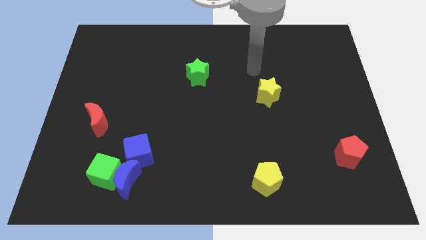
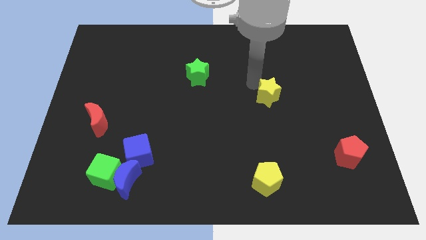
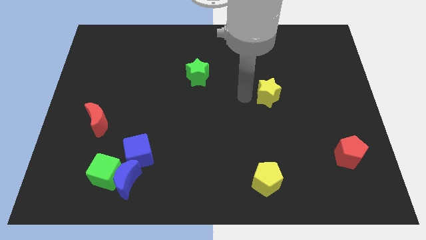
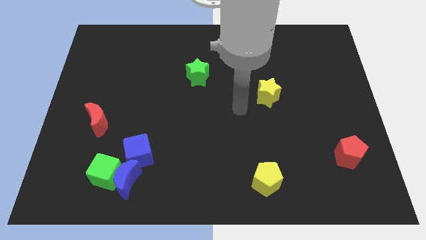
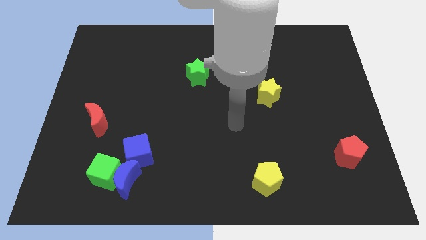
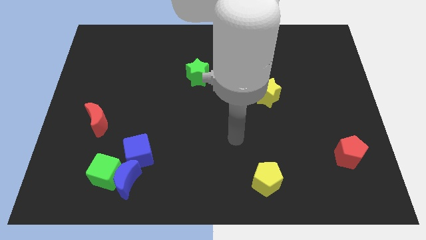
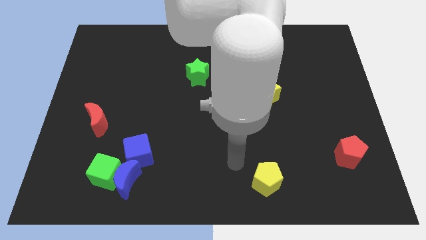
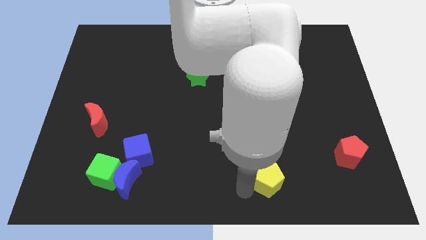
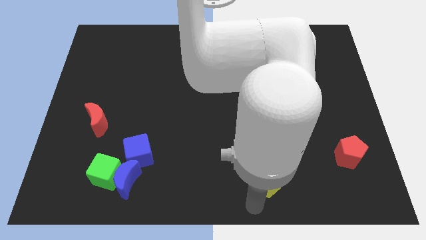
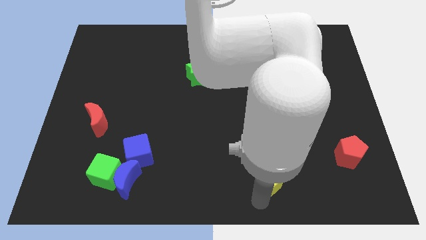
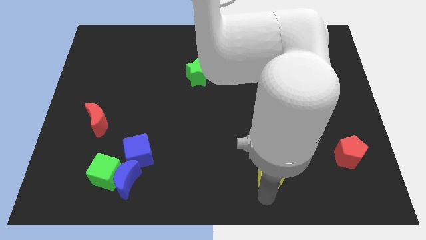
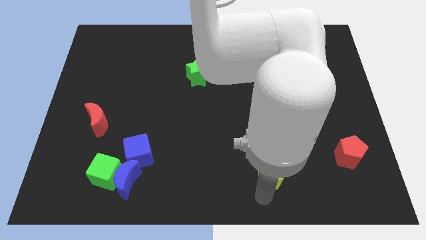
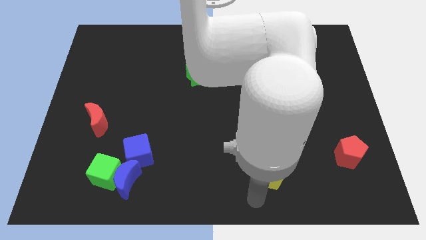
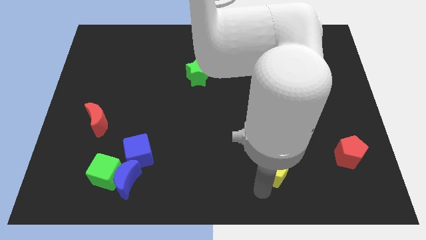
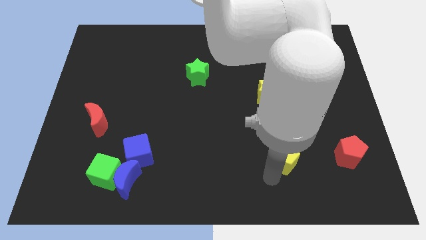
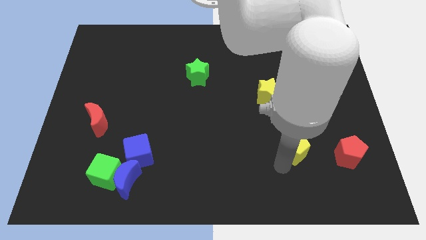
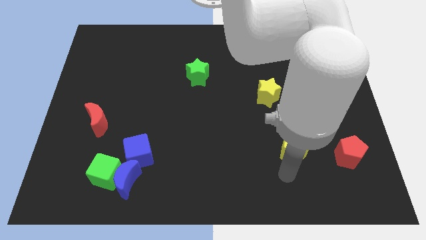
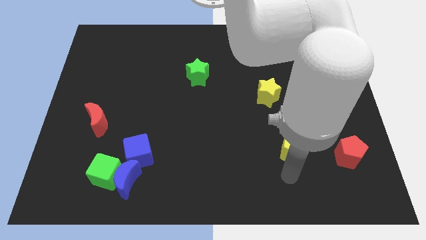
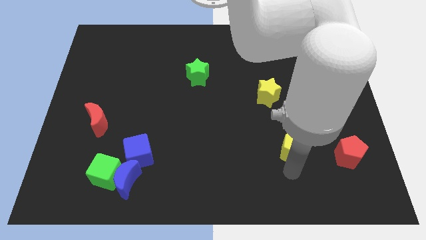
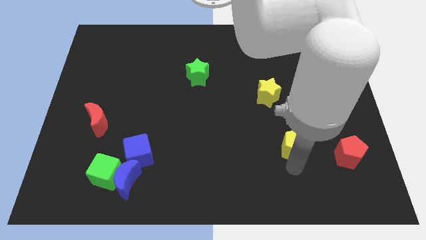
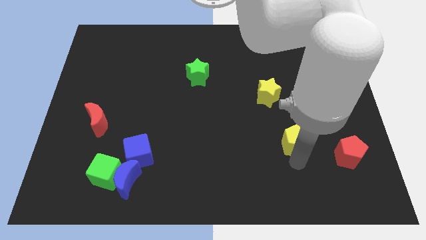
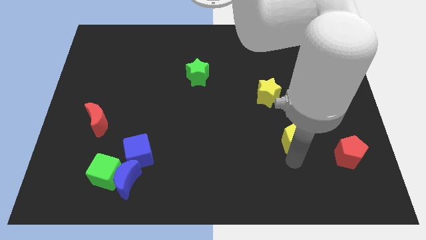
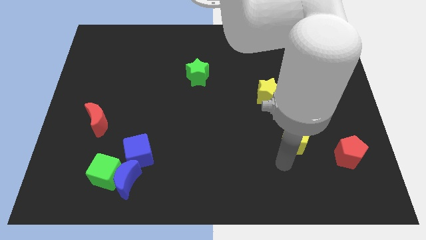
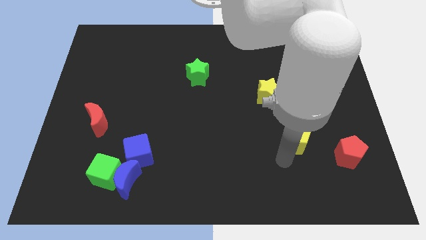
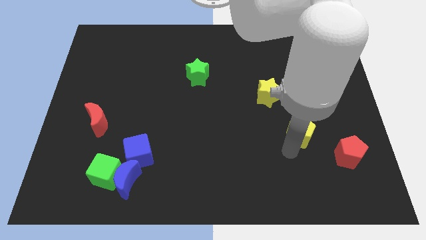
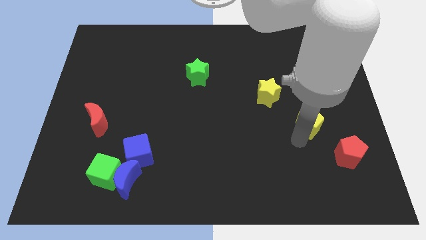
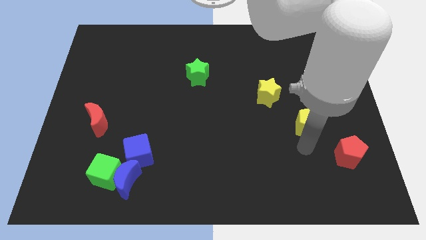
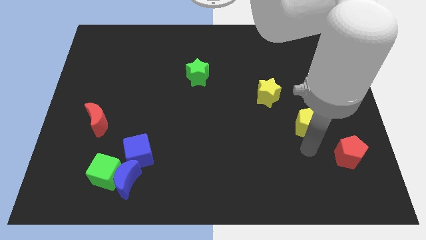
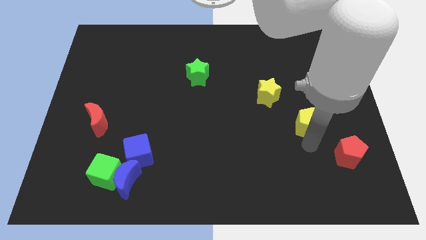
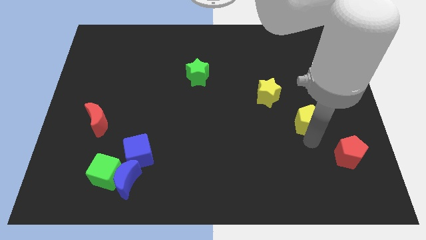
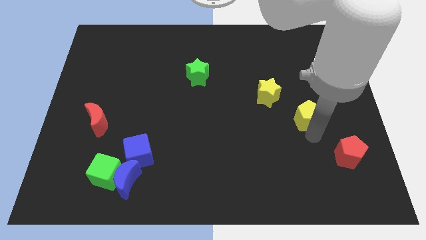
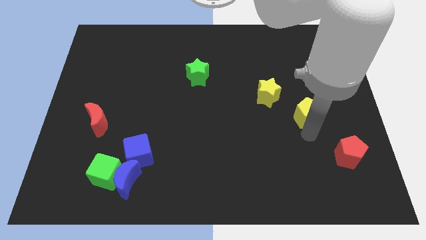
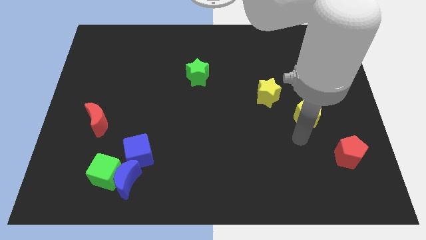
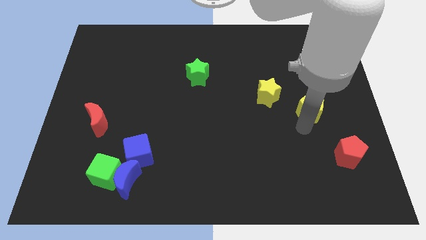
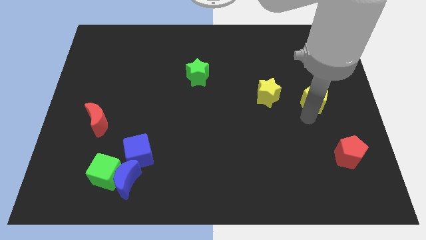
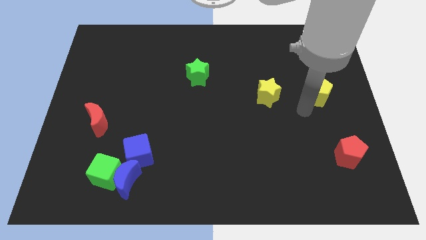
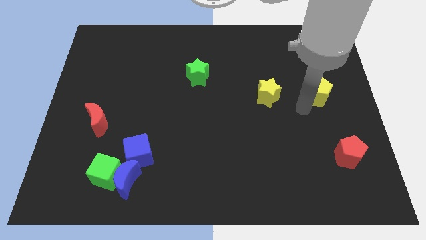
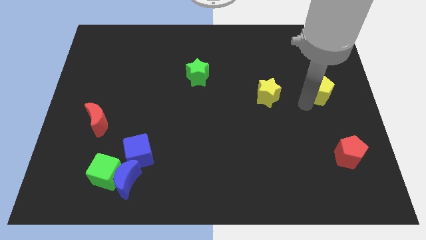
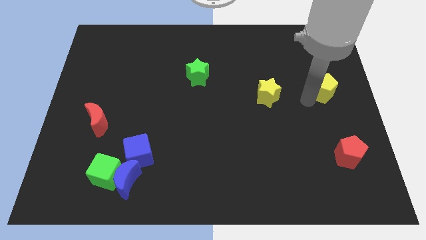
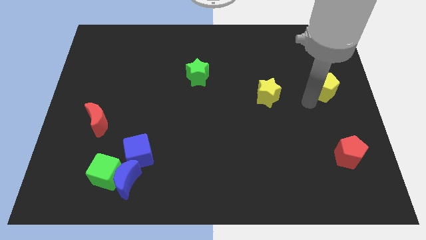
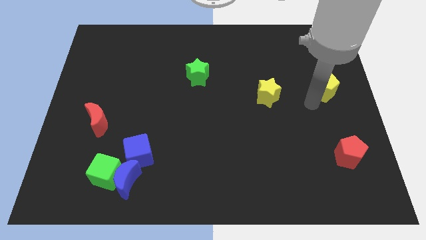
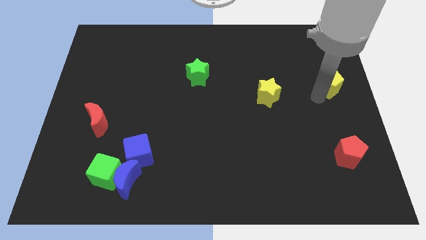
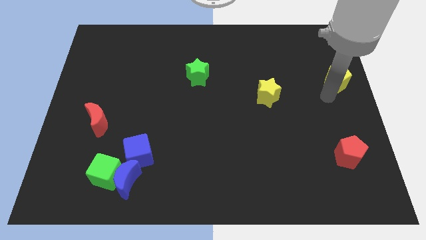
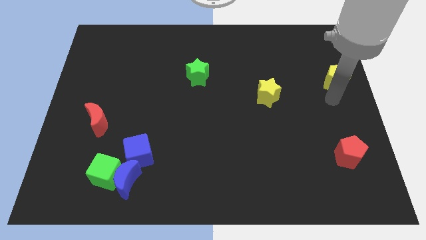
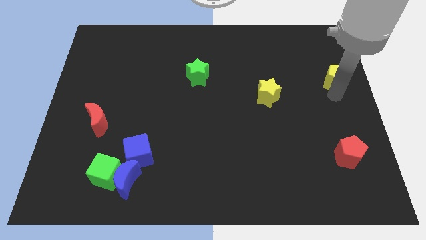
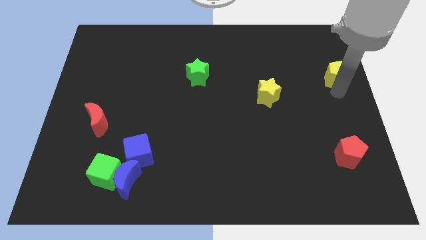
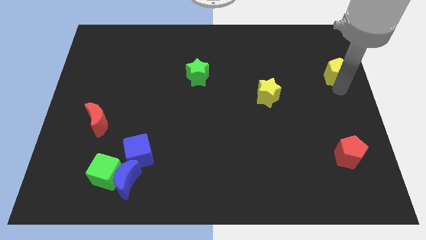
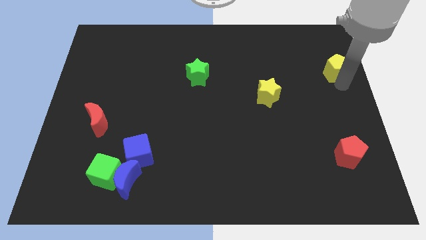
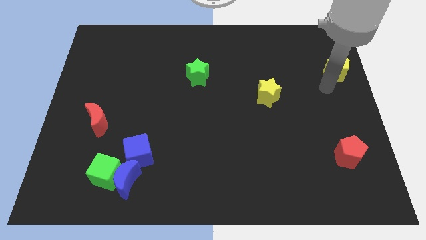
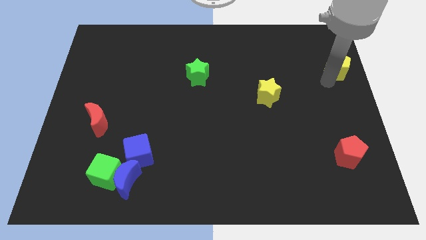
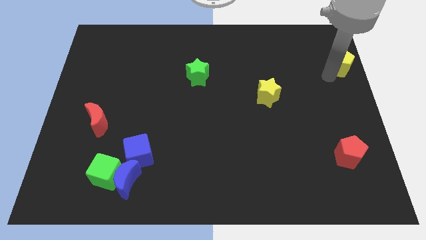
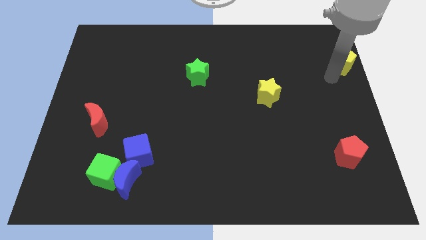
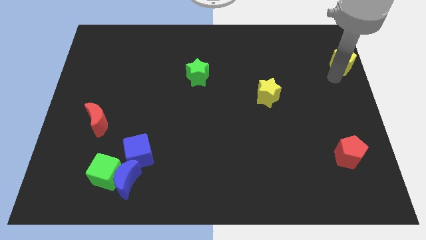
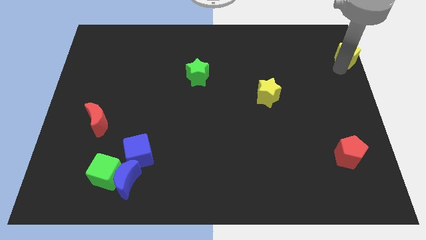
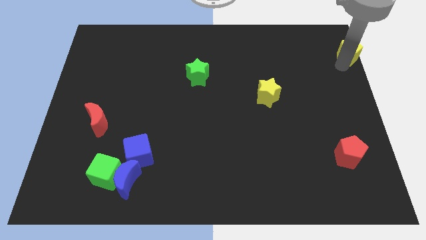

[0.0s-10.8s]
slide the yellow pentagon to the top right of the board
